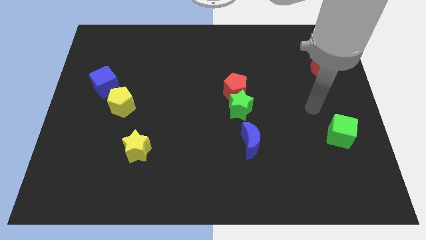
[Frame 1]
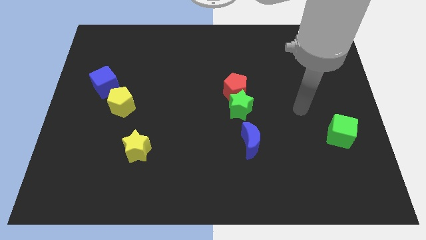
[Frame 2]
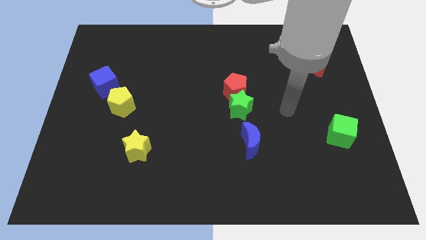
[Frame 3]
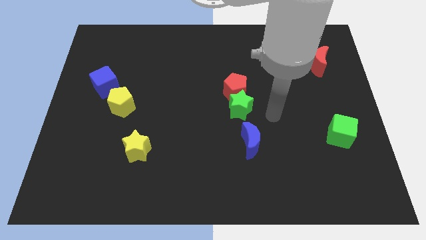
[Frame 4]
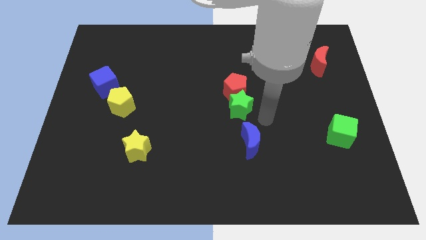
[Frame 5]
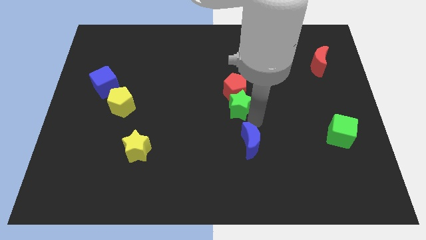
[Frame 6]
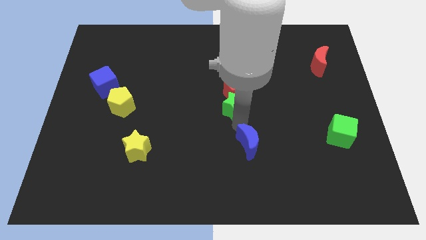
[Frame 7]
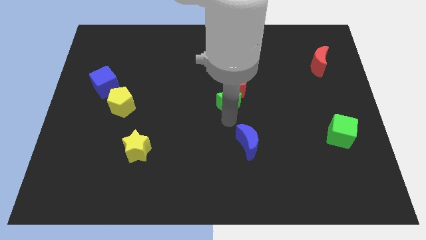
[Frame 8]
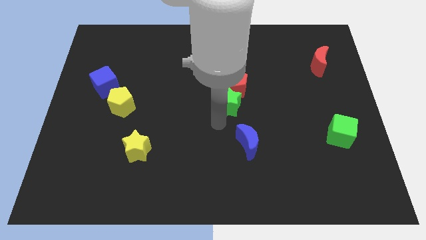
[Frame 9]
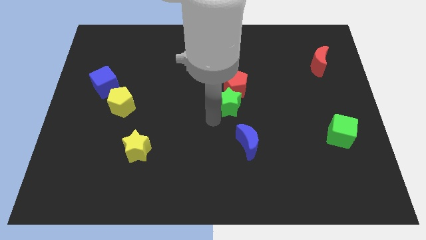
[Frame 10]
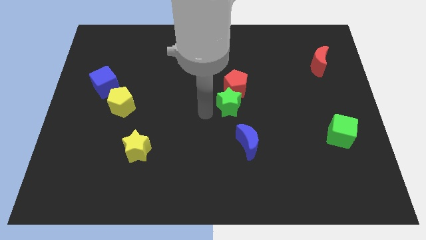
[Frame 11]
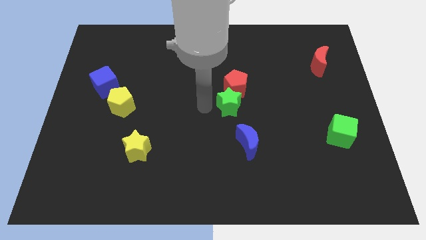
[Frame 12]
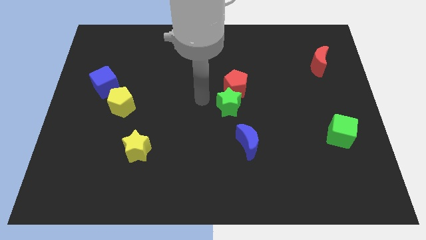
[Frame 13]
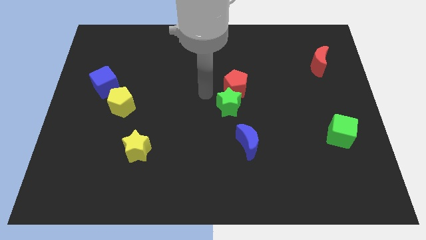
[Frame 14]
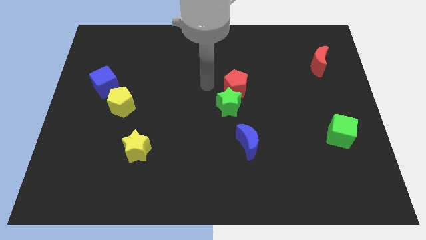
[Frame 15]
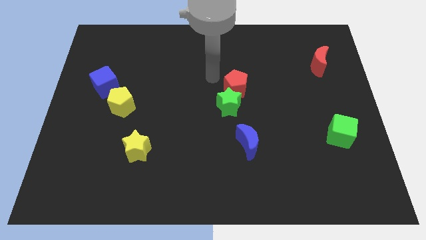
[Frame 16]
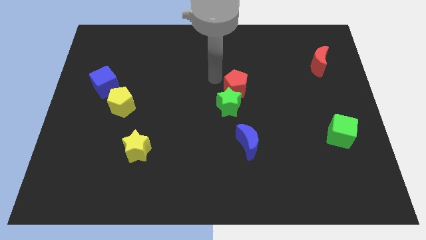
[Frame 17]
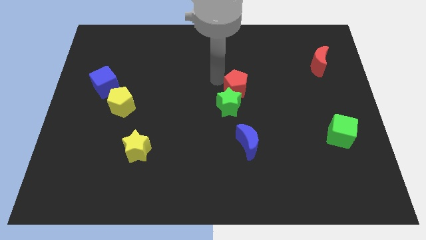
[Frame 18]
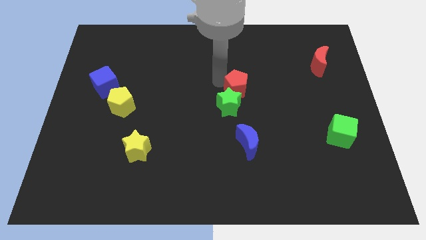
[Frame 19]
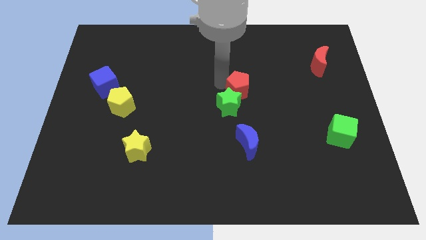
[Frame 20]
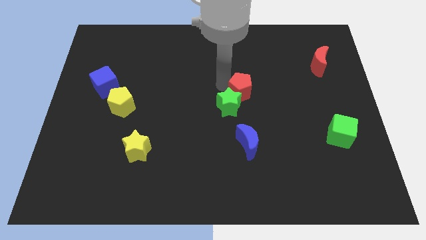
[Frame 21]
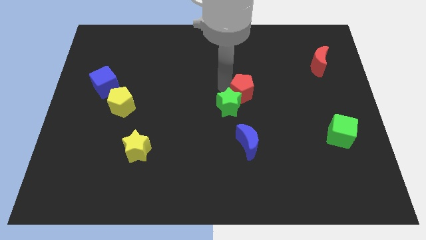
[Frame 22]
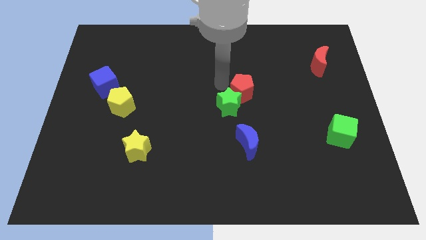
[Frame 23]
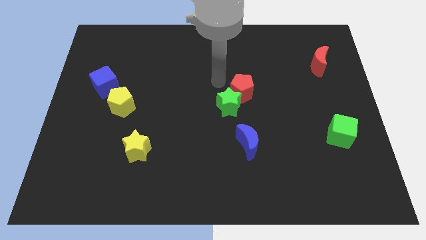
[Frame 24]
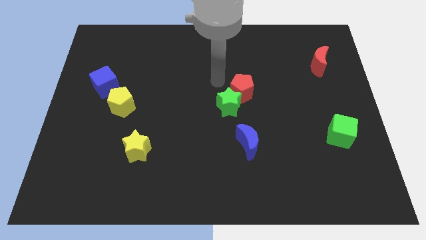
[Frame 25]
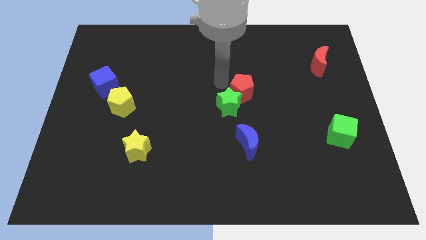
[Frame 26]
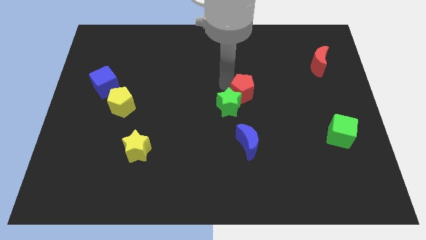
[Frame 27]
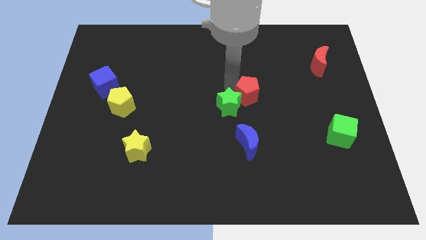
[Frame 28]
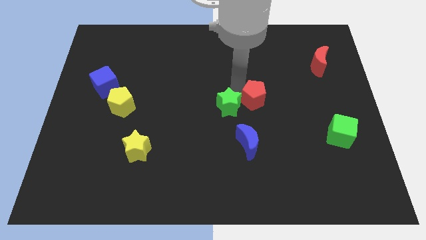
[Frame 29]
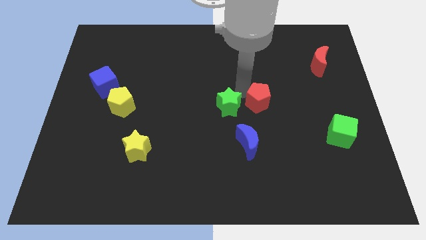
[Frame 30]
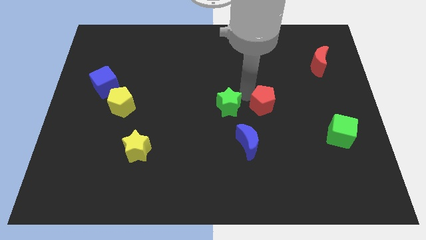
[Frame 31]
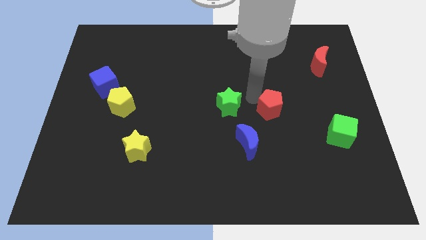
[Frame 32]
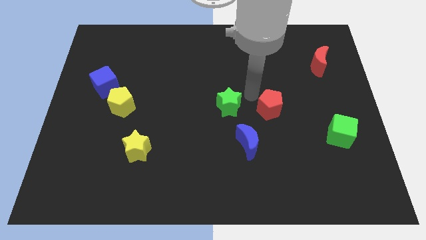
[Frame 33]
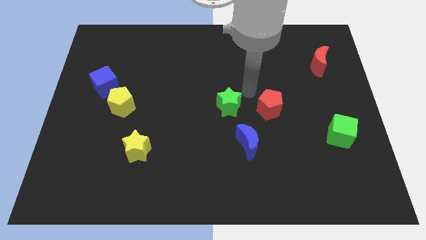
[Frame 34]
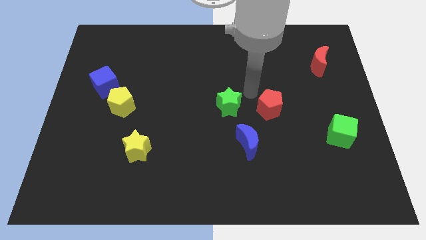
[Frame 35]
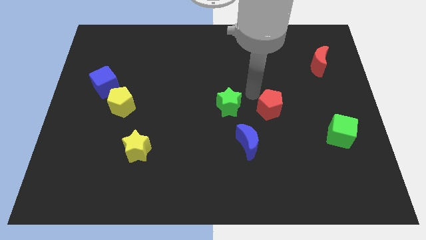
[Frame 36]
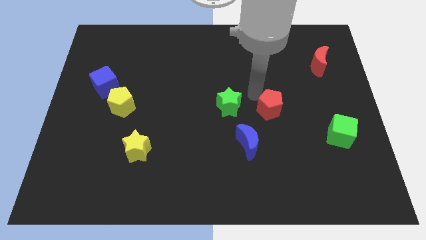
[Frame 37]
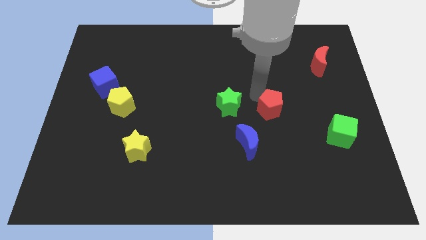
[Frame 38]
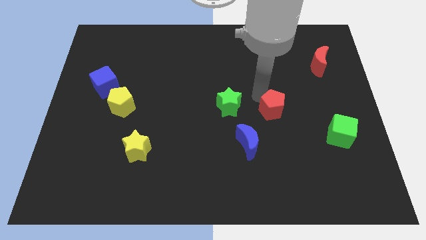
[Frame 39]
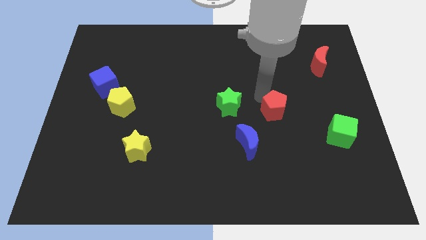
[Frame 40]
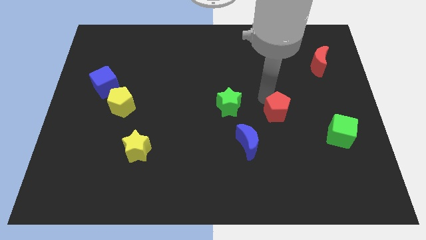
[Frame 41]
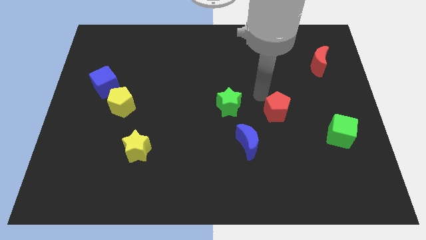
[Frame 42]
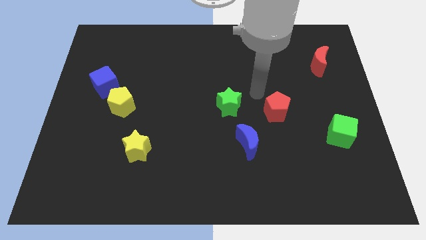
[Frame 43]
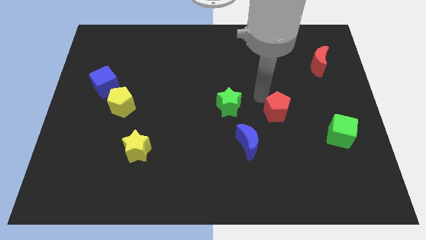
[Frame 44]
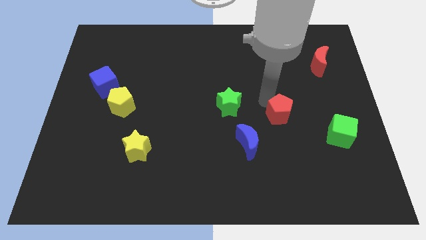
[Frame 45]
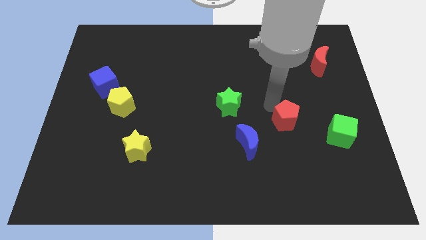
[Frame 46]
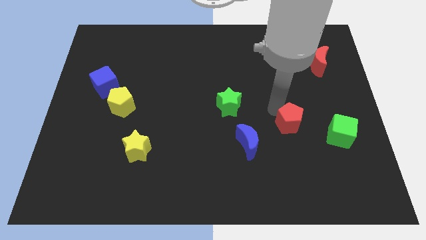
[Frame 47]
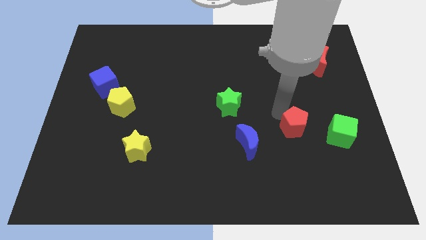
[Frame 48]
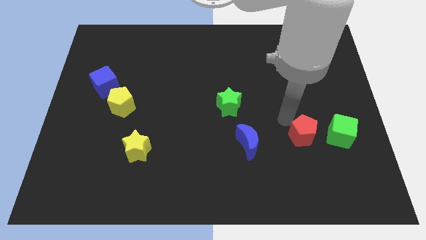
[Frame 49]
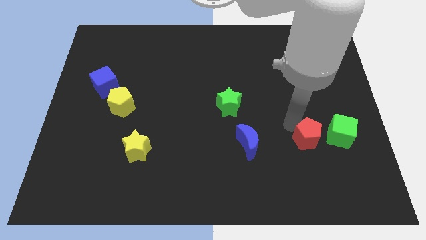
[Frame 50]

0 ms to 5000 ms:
push the red pentagon down and right diagonally

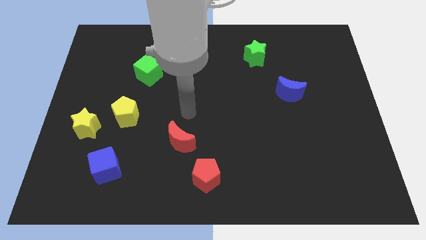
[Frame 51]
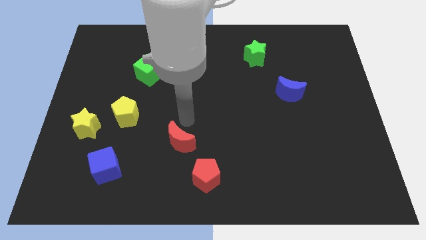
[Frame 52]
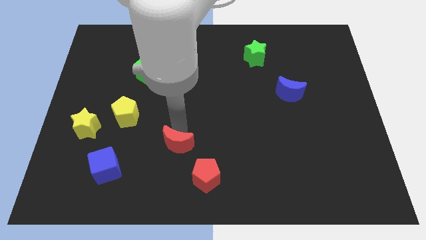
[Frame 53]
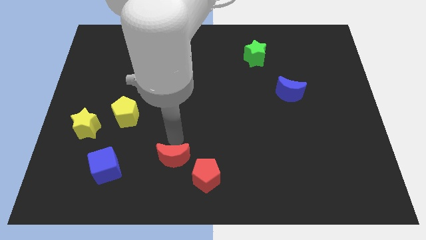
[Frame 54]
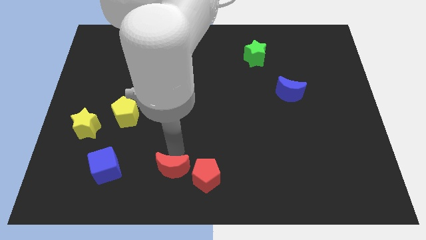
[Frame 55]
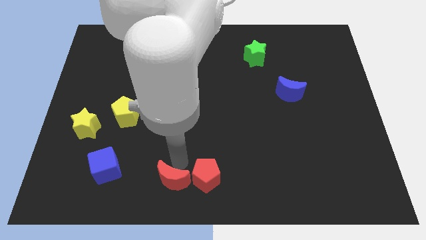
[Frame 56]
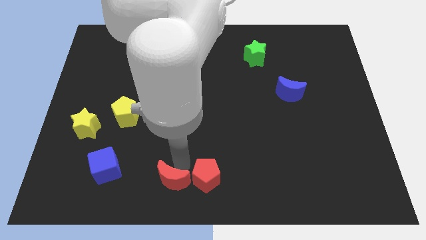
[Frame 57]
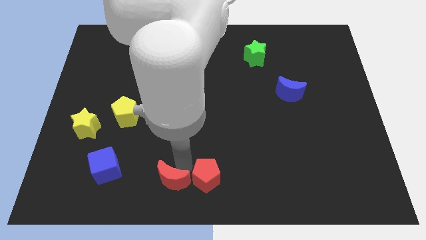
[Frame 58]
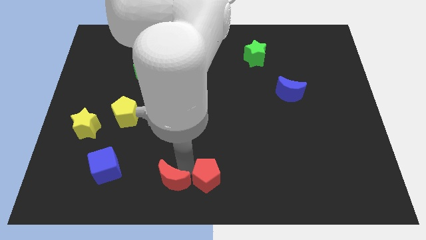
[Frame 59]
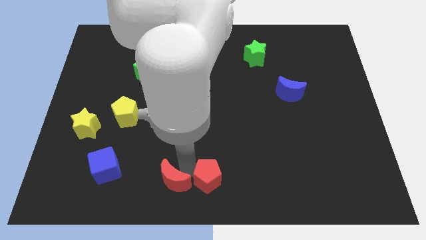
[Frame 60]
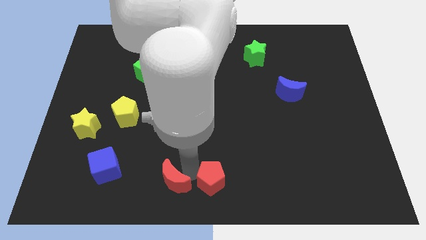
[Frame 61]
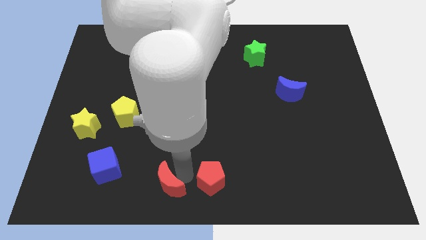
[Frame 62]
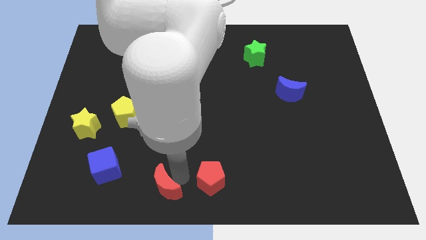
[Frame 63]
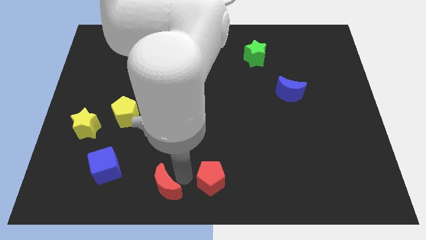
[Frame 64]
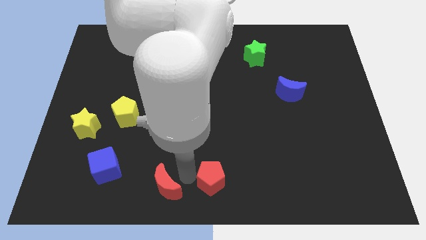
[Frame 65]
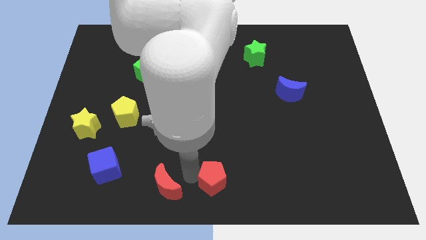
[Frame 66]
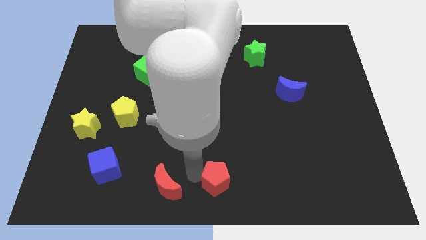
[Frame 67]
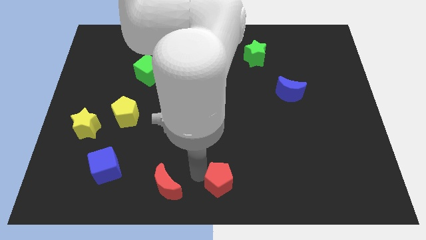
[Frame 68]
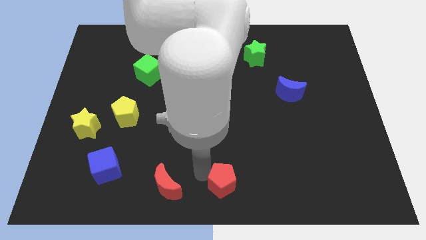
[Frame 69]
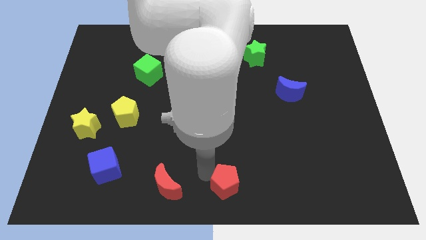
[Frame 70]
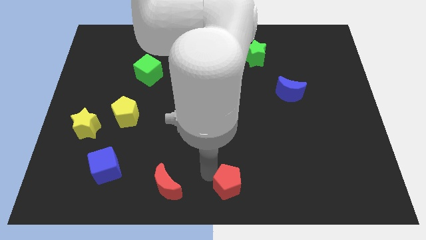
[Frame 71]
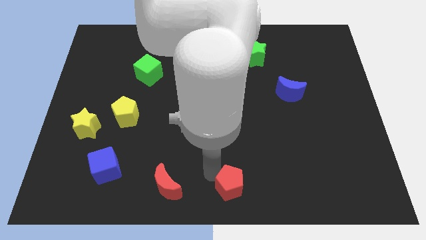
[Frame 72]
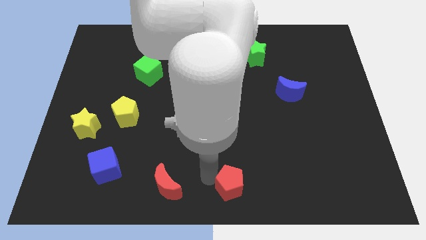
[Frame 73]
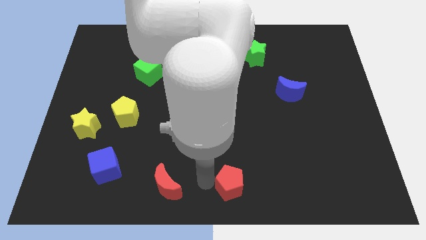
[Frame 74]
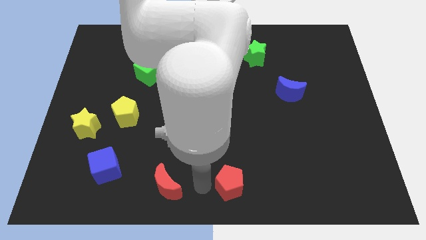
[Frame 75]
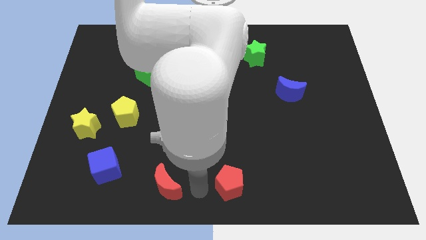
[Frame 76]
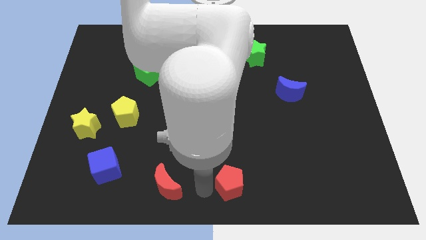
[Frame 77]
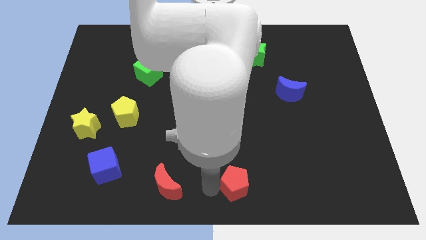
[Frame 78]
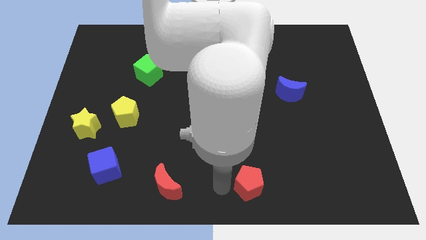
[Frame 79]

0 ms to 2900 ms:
slightly slide the red pentagon right
